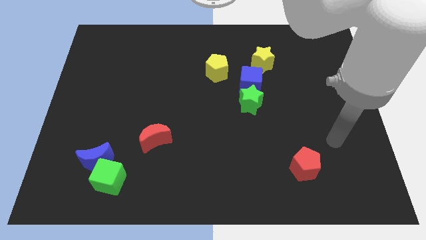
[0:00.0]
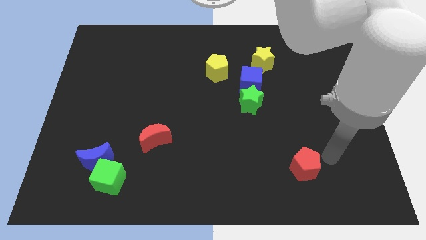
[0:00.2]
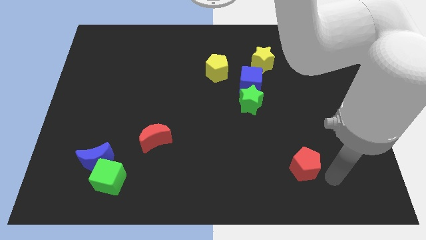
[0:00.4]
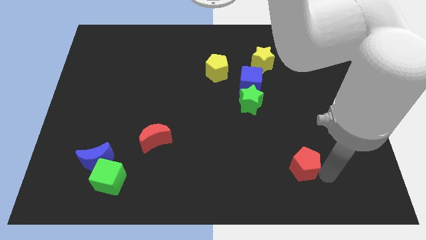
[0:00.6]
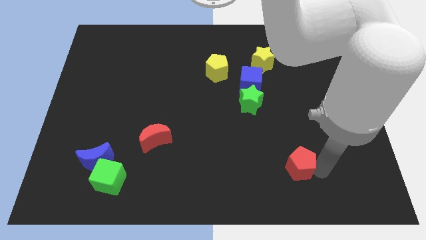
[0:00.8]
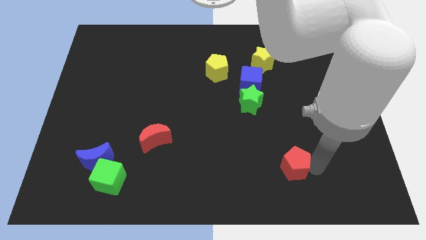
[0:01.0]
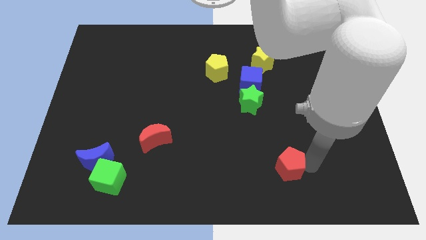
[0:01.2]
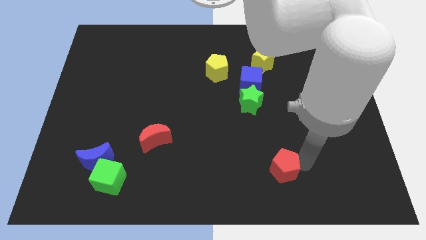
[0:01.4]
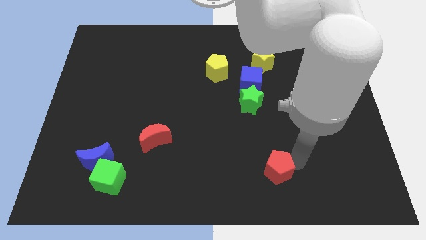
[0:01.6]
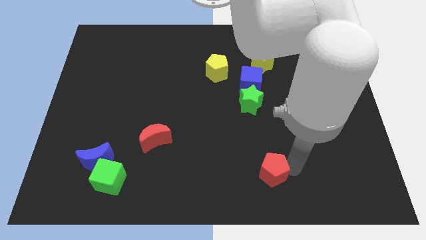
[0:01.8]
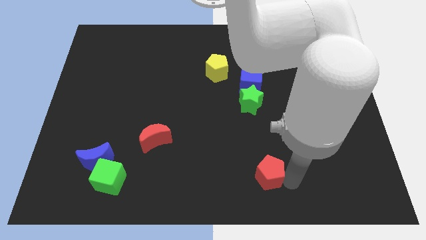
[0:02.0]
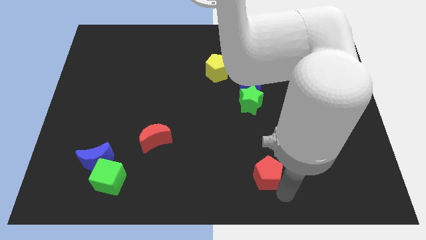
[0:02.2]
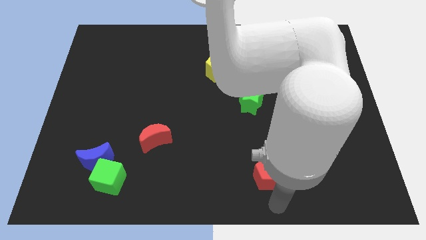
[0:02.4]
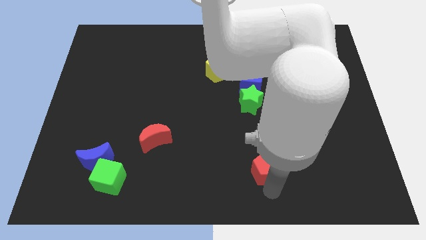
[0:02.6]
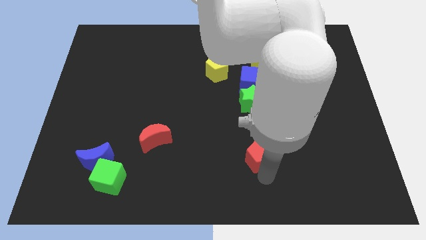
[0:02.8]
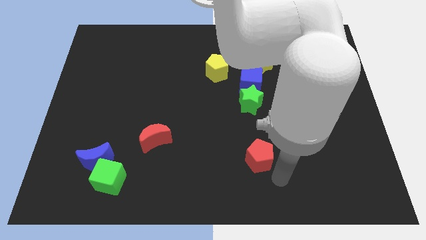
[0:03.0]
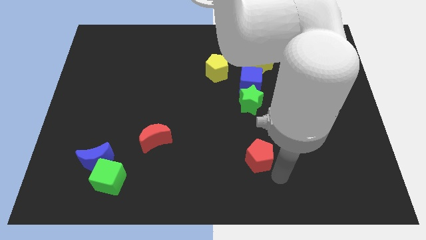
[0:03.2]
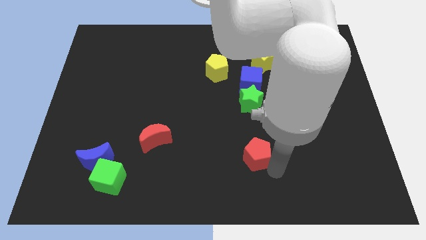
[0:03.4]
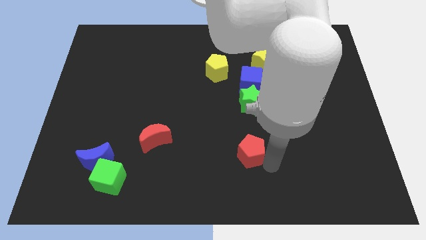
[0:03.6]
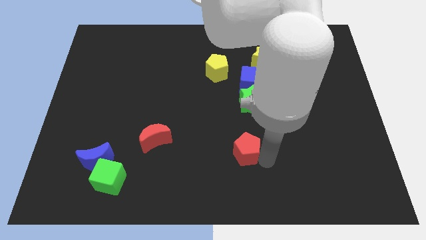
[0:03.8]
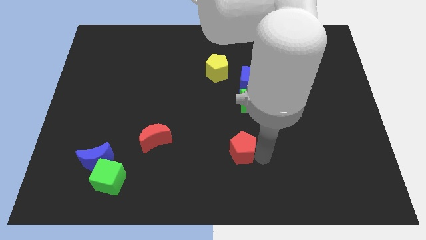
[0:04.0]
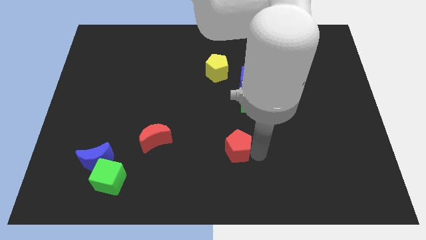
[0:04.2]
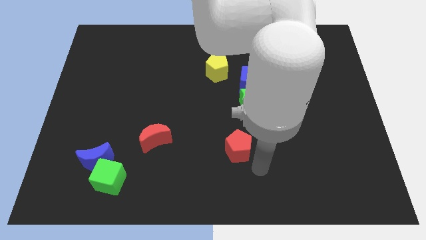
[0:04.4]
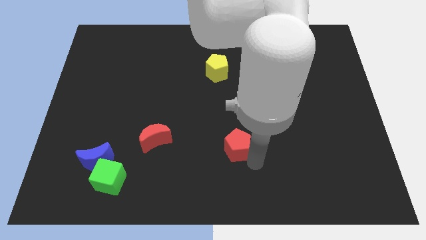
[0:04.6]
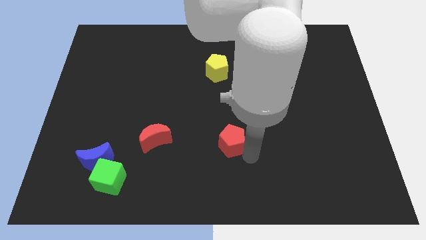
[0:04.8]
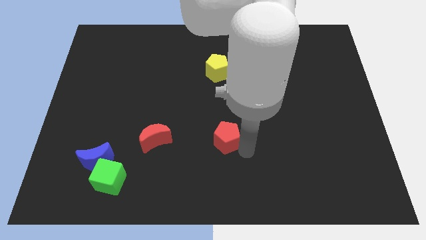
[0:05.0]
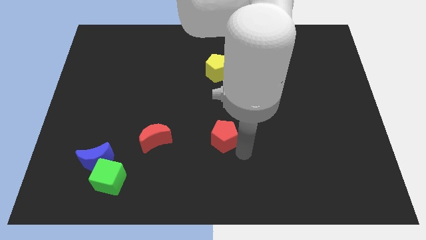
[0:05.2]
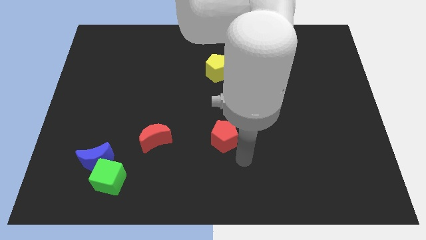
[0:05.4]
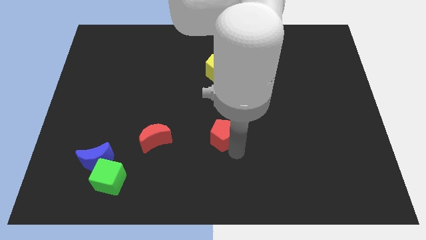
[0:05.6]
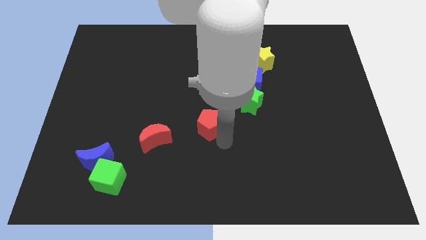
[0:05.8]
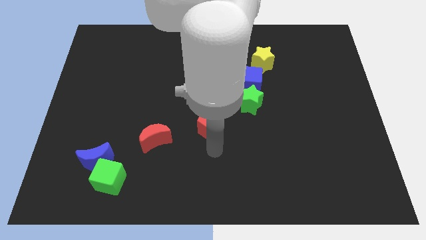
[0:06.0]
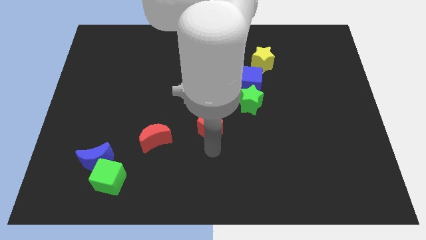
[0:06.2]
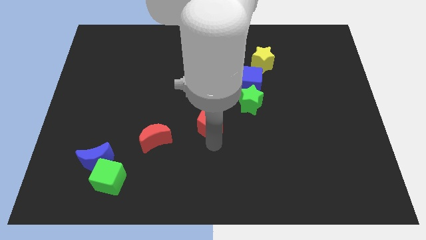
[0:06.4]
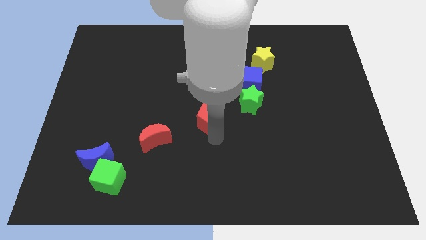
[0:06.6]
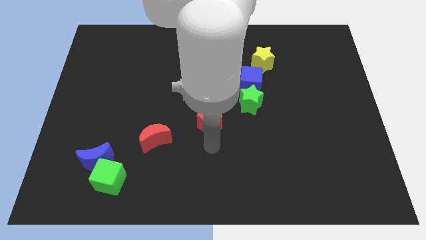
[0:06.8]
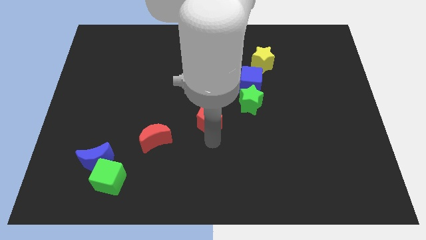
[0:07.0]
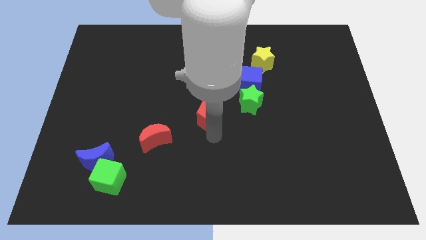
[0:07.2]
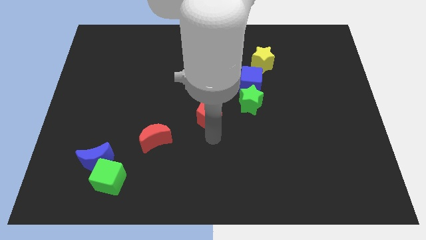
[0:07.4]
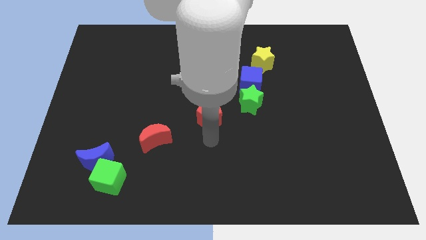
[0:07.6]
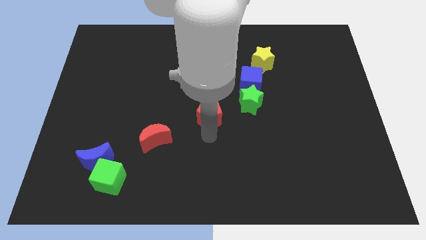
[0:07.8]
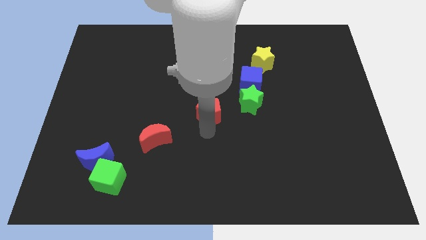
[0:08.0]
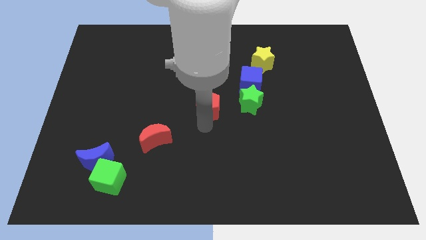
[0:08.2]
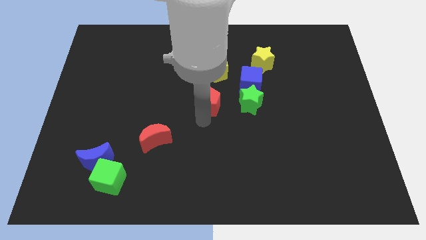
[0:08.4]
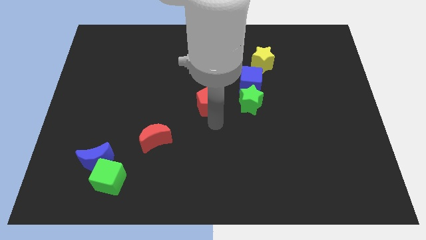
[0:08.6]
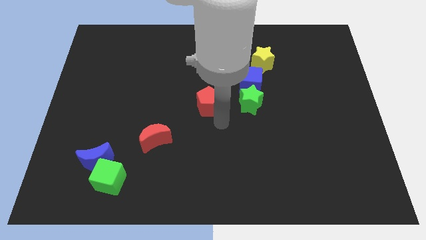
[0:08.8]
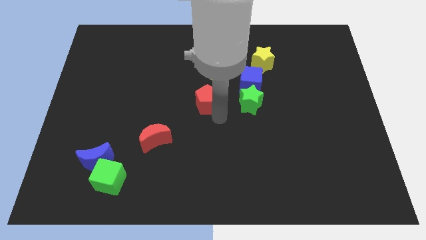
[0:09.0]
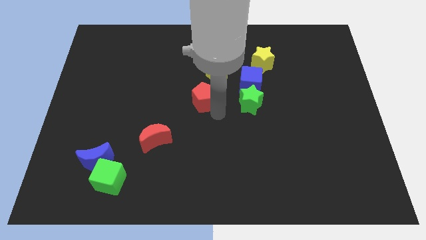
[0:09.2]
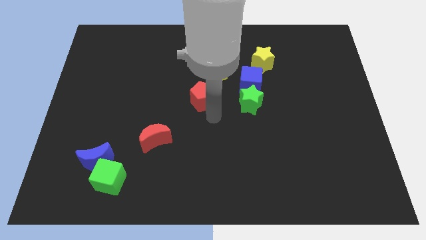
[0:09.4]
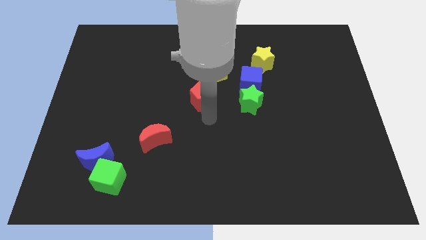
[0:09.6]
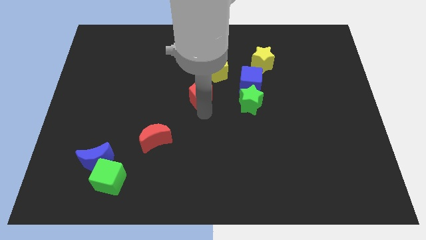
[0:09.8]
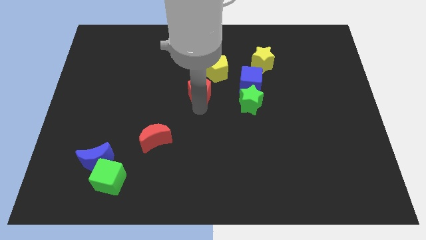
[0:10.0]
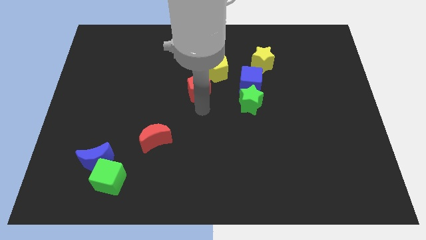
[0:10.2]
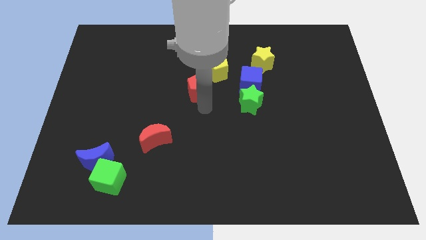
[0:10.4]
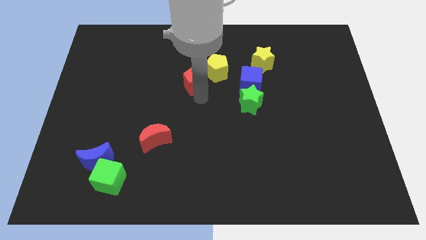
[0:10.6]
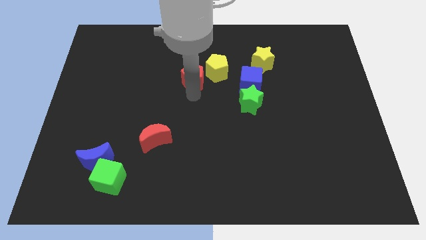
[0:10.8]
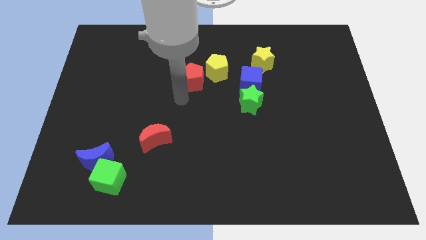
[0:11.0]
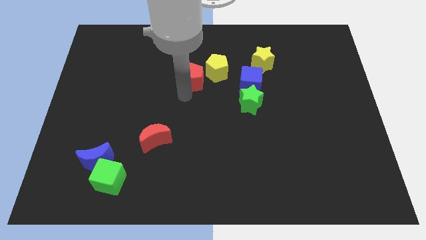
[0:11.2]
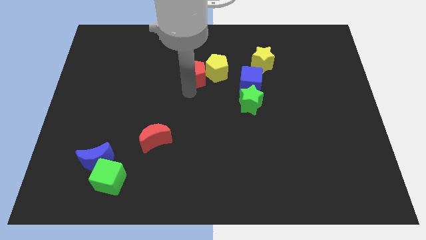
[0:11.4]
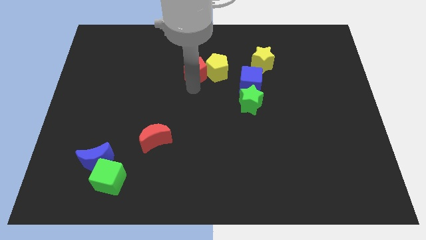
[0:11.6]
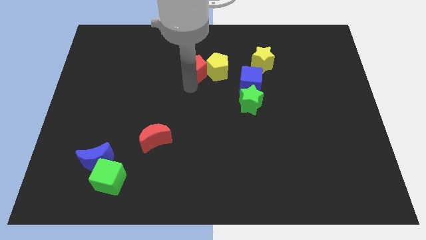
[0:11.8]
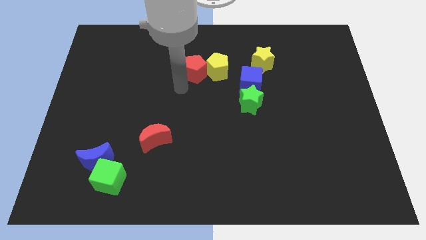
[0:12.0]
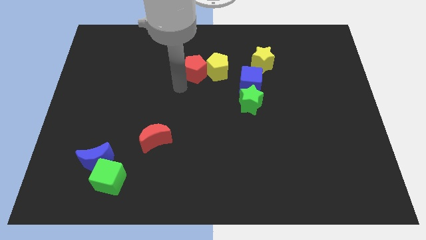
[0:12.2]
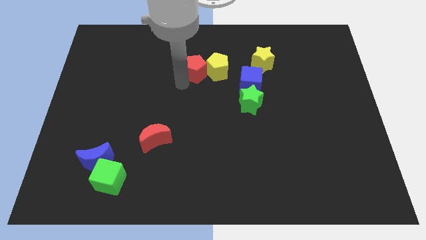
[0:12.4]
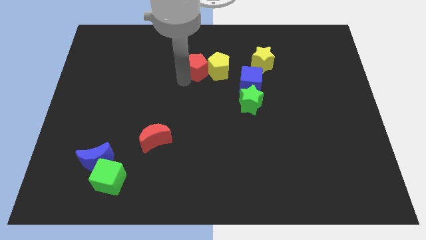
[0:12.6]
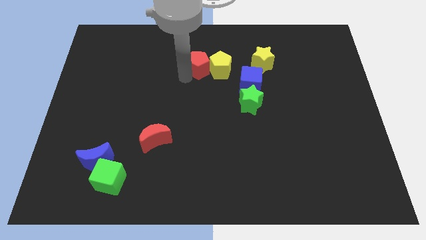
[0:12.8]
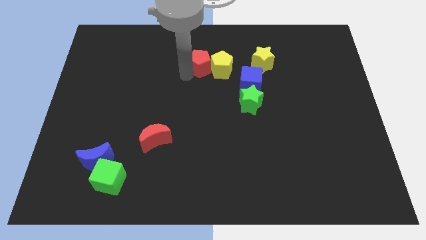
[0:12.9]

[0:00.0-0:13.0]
move the red pentagon just left of the yellow star
